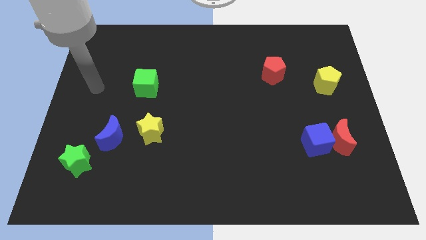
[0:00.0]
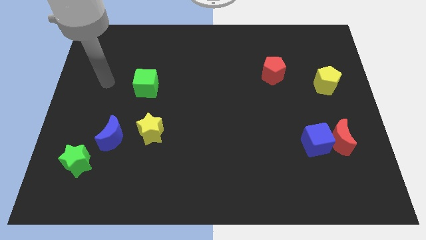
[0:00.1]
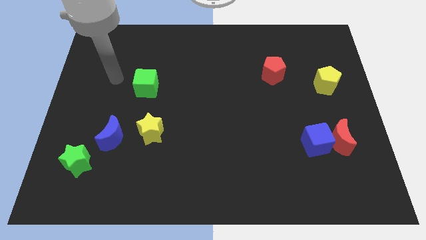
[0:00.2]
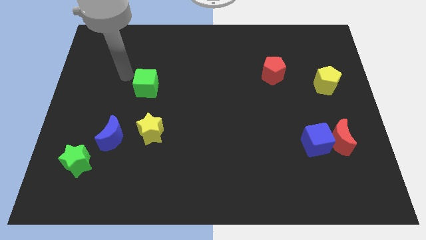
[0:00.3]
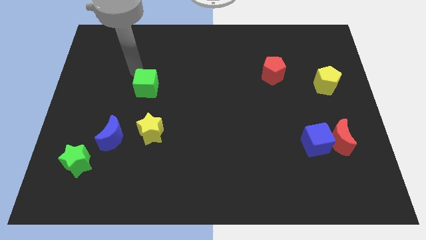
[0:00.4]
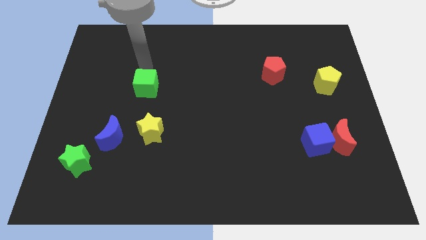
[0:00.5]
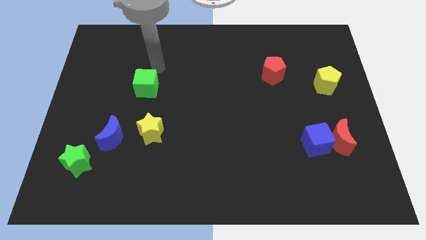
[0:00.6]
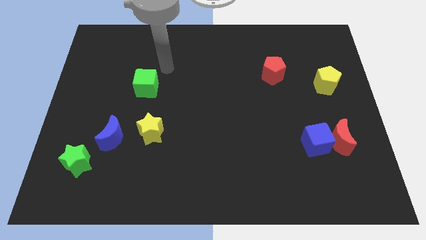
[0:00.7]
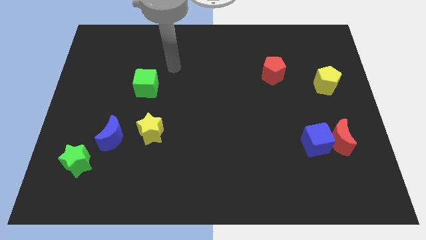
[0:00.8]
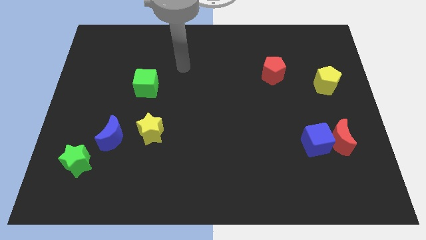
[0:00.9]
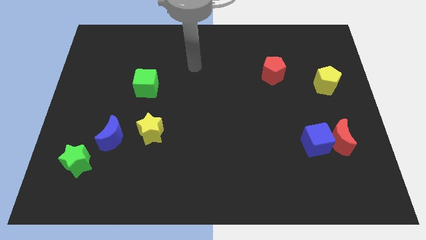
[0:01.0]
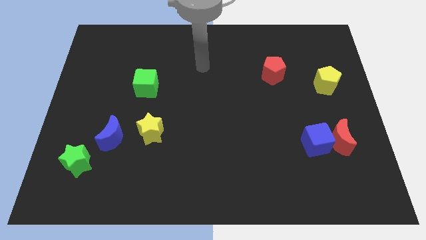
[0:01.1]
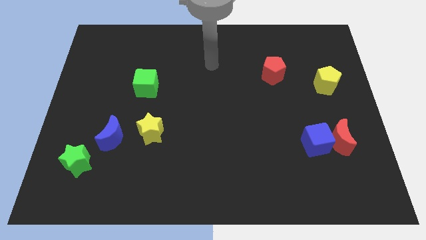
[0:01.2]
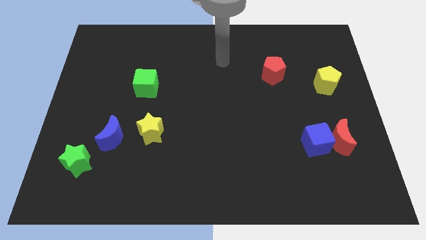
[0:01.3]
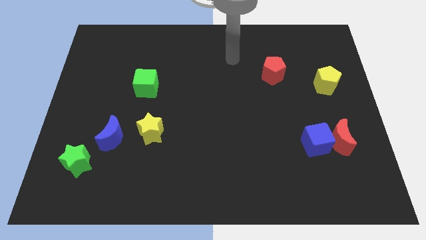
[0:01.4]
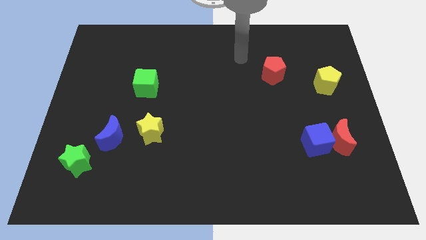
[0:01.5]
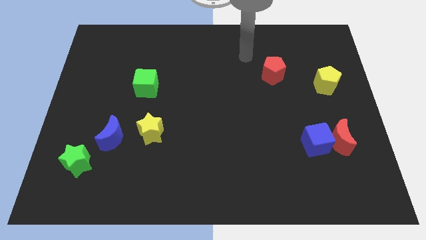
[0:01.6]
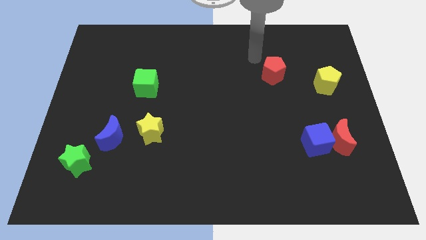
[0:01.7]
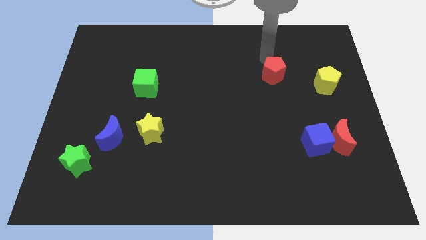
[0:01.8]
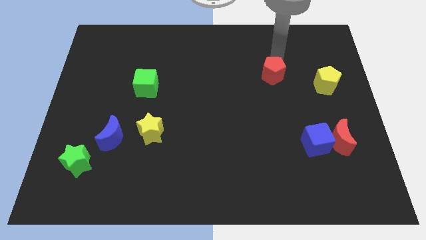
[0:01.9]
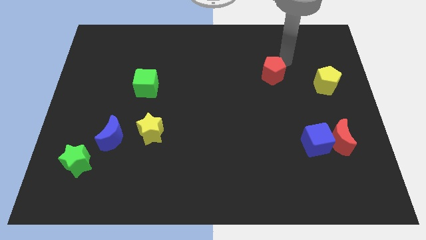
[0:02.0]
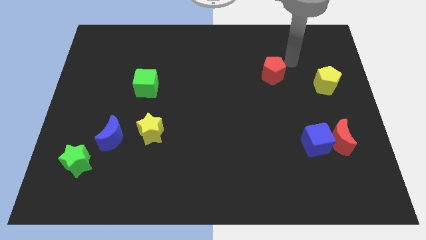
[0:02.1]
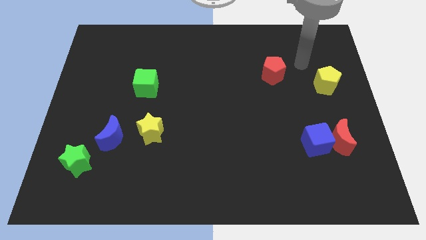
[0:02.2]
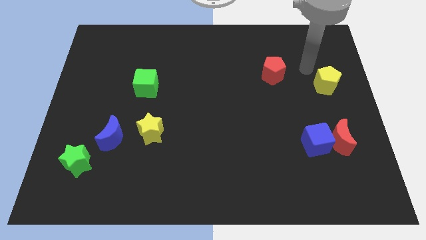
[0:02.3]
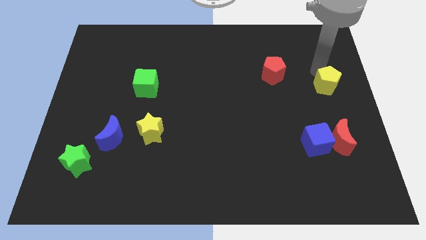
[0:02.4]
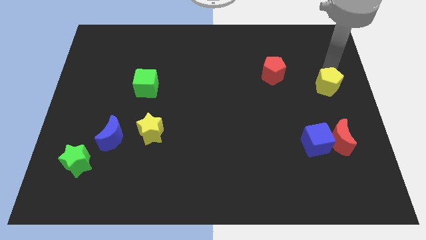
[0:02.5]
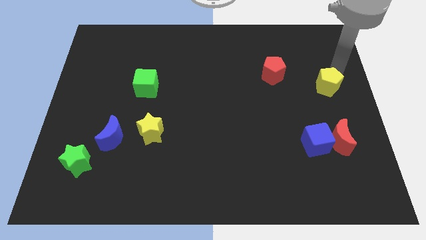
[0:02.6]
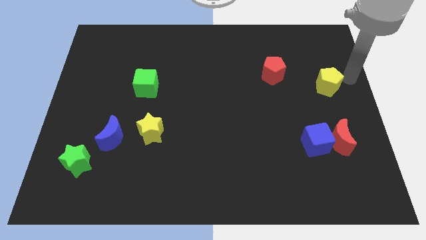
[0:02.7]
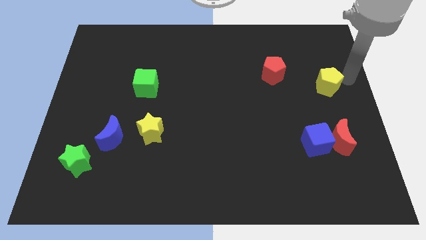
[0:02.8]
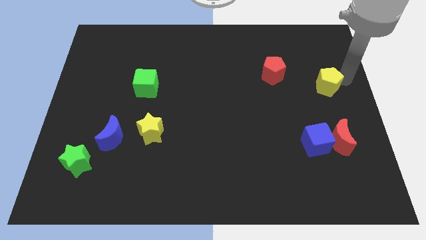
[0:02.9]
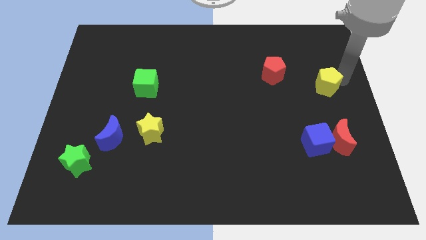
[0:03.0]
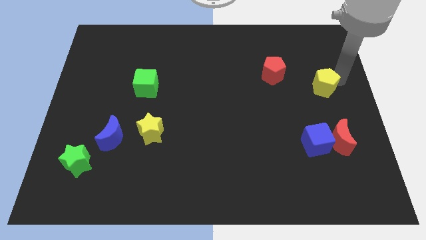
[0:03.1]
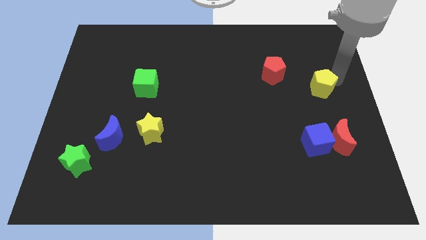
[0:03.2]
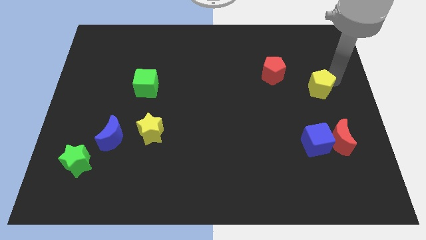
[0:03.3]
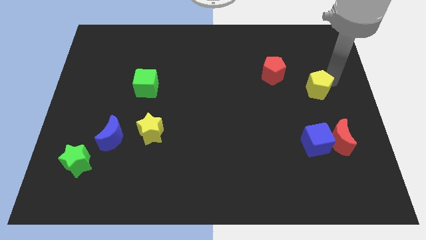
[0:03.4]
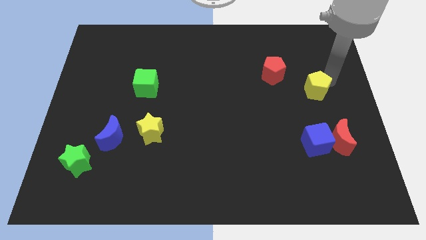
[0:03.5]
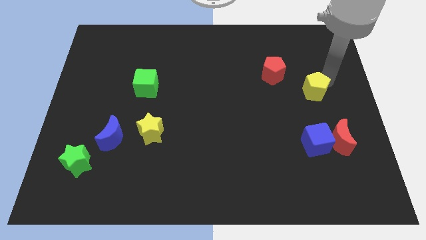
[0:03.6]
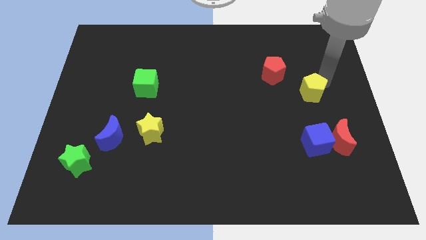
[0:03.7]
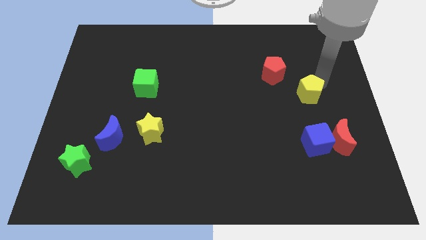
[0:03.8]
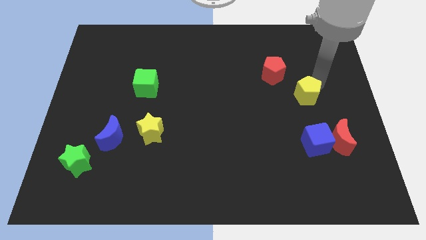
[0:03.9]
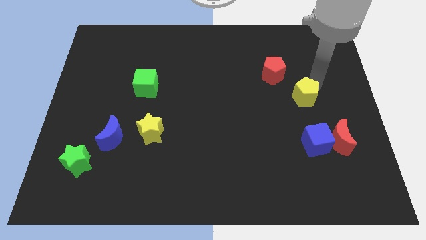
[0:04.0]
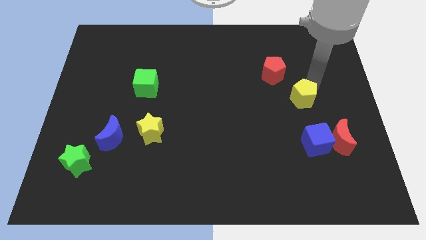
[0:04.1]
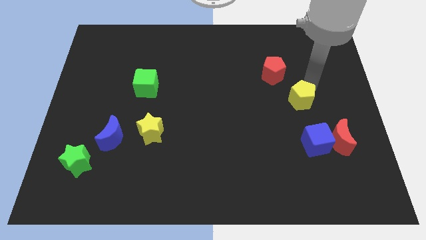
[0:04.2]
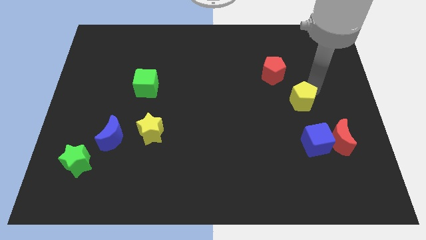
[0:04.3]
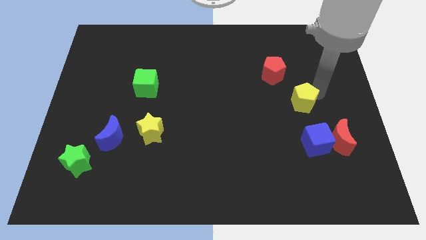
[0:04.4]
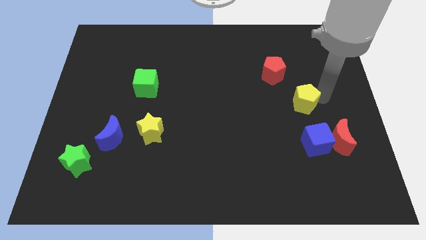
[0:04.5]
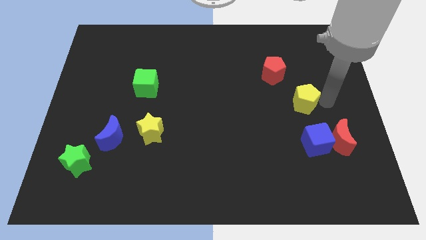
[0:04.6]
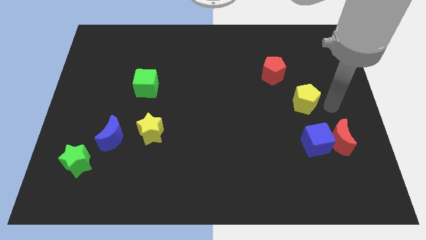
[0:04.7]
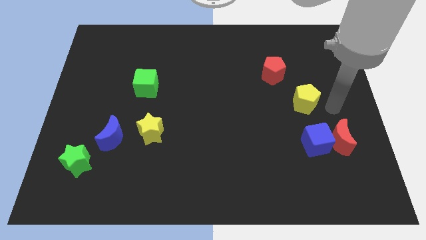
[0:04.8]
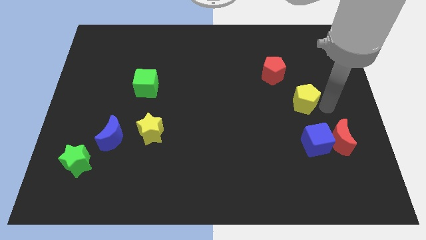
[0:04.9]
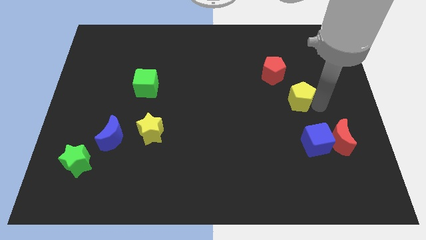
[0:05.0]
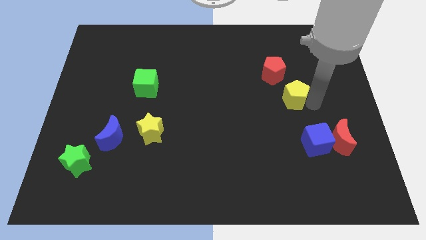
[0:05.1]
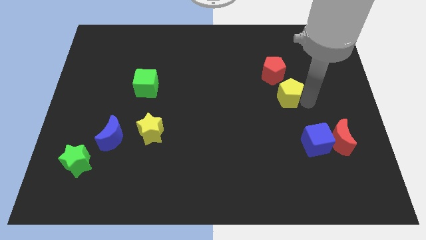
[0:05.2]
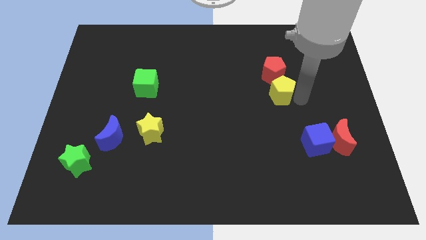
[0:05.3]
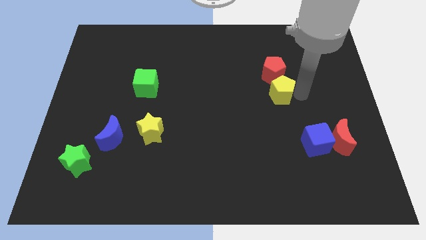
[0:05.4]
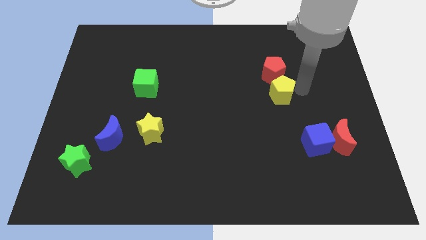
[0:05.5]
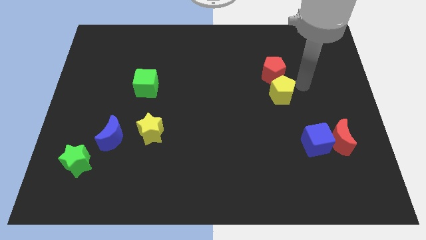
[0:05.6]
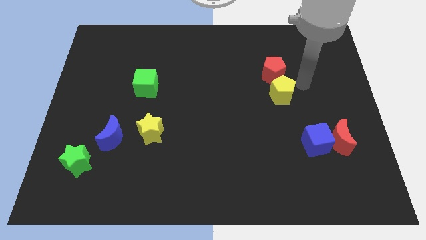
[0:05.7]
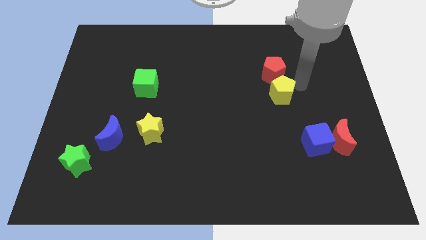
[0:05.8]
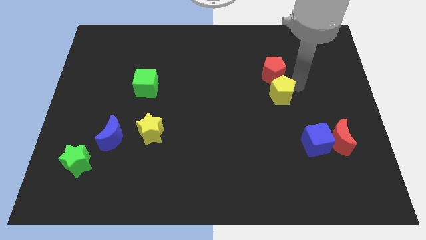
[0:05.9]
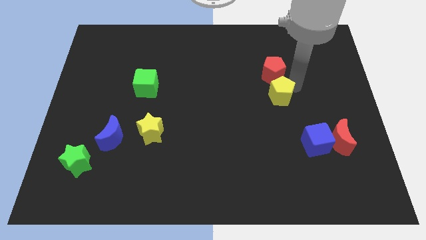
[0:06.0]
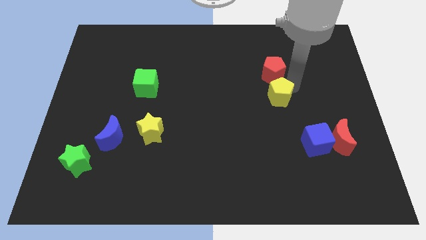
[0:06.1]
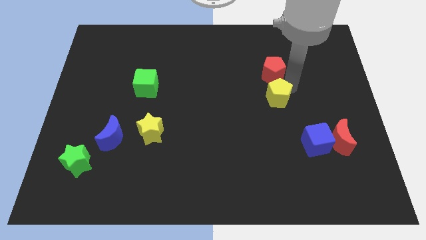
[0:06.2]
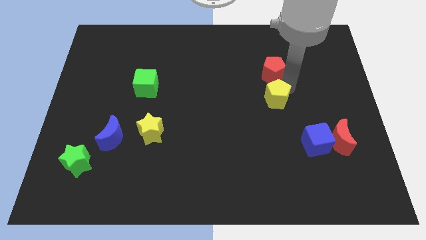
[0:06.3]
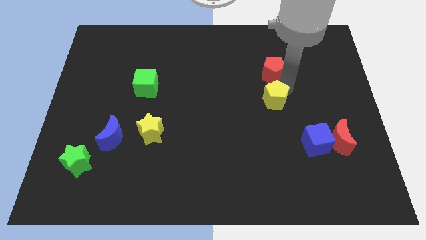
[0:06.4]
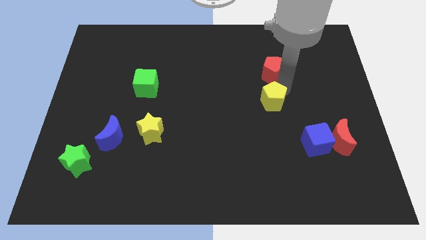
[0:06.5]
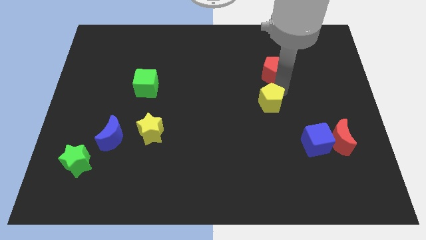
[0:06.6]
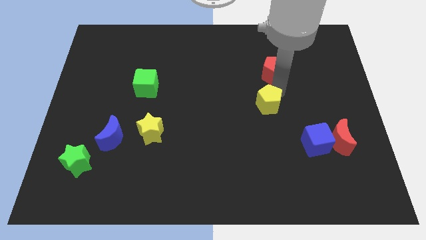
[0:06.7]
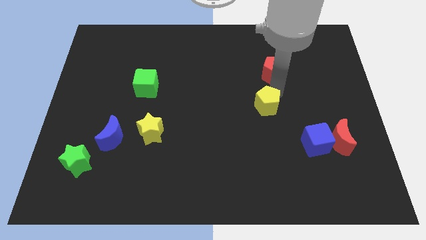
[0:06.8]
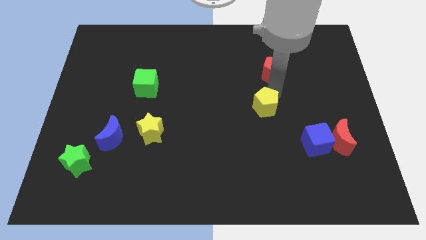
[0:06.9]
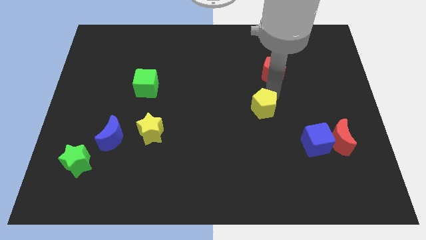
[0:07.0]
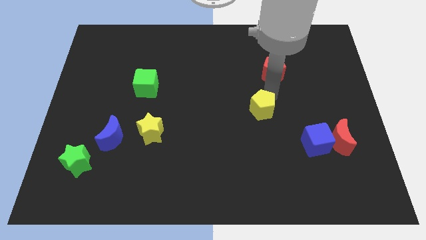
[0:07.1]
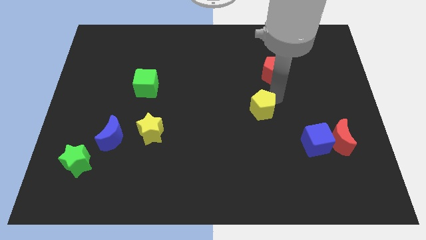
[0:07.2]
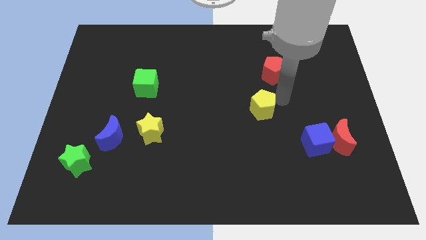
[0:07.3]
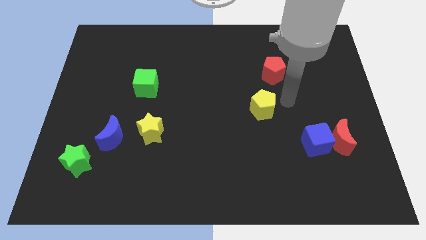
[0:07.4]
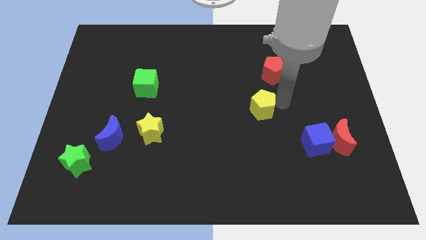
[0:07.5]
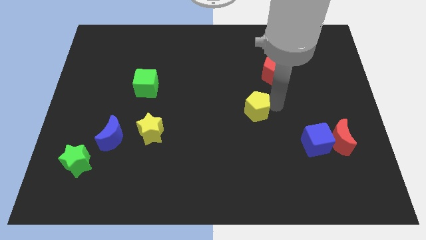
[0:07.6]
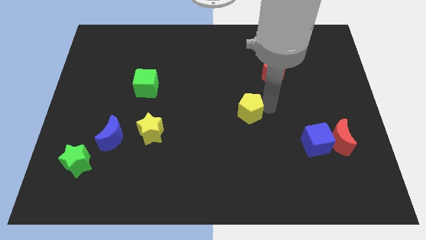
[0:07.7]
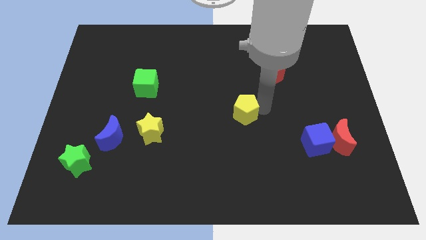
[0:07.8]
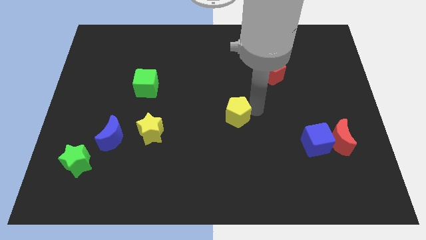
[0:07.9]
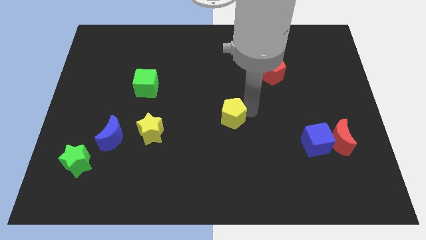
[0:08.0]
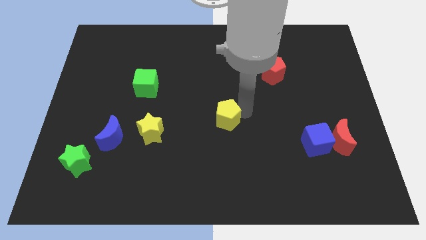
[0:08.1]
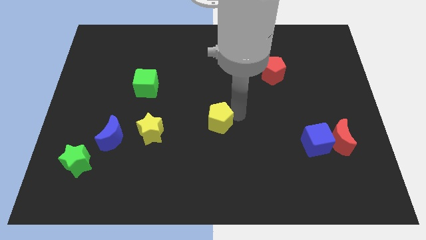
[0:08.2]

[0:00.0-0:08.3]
slide the yellow pentagon to the right side of the yellow star
